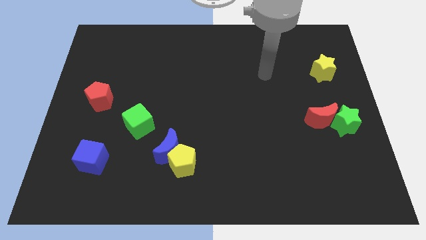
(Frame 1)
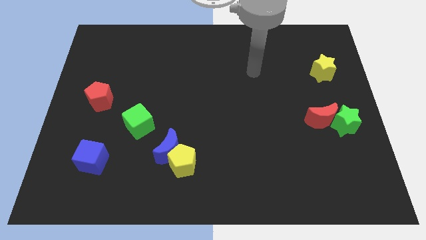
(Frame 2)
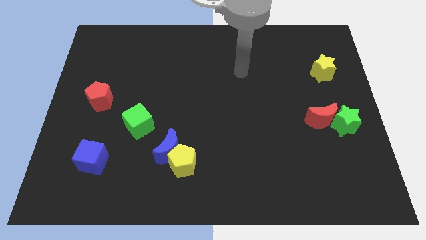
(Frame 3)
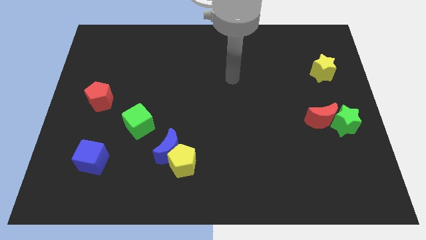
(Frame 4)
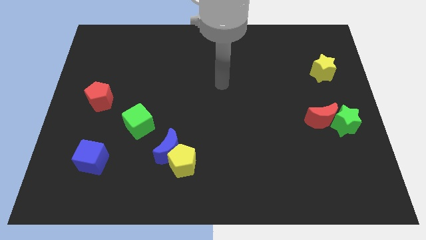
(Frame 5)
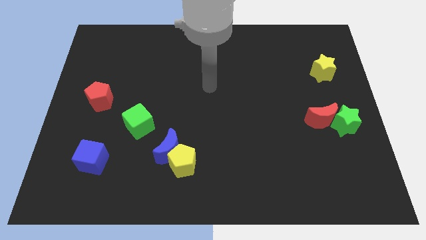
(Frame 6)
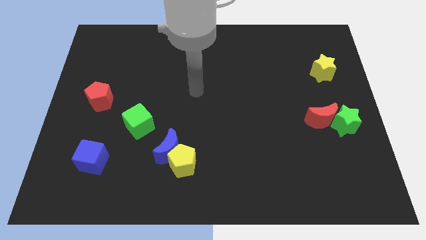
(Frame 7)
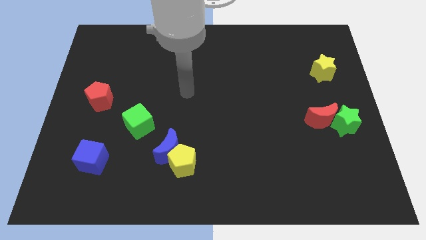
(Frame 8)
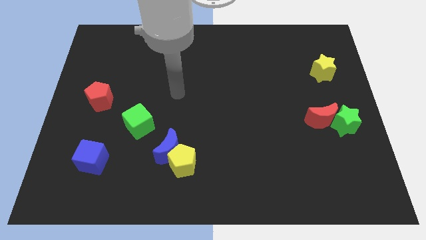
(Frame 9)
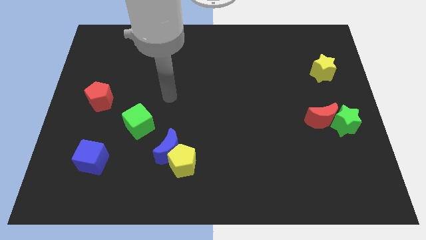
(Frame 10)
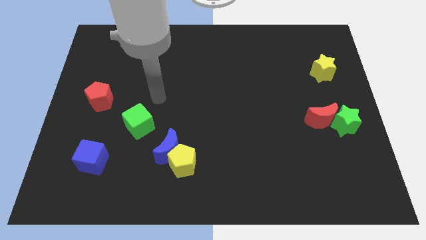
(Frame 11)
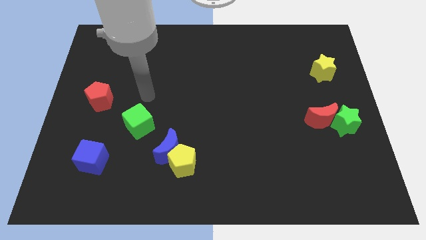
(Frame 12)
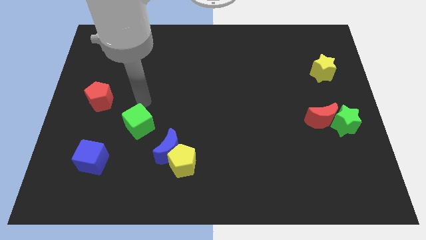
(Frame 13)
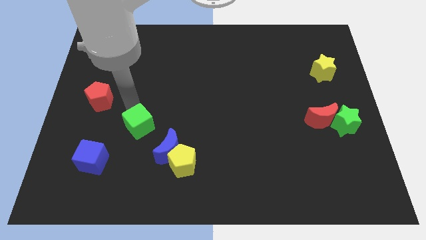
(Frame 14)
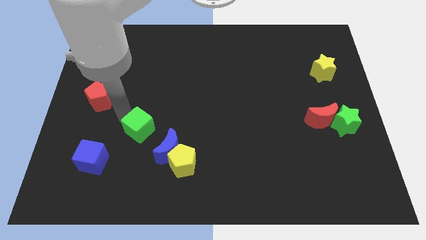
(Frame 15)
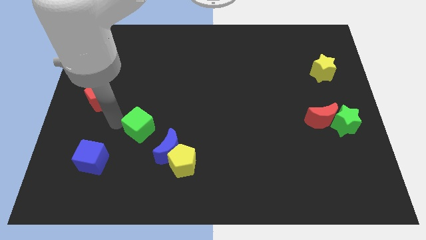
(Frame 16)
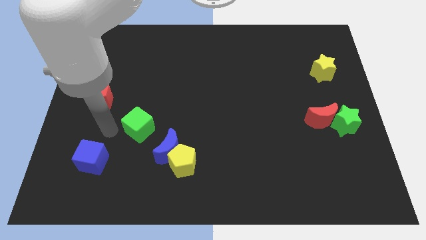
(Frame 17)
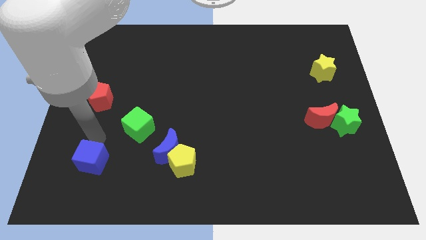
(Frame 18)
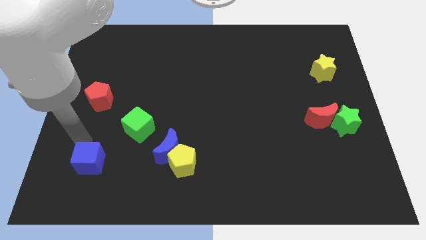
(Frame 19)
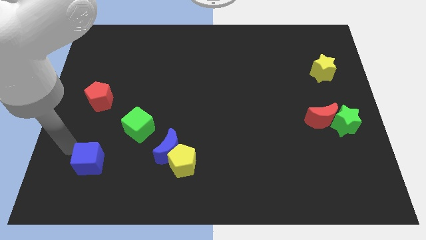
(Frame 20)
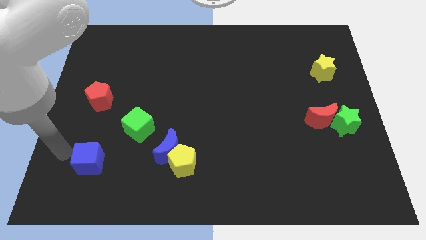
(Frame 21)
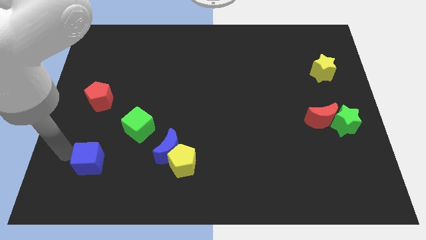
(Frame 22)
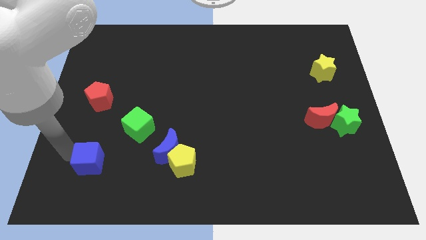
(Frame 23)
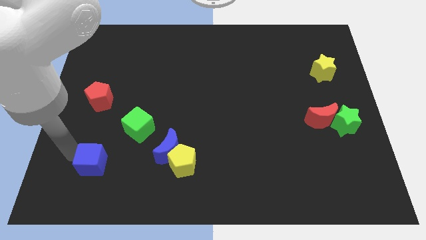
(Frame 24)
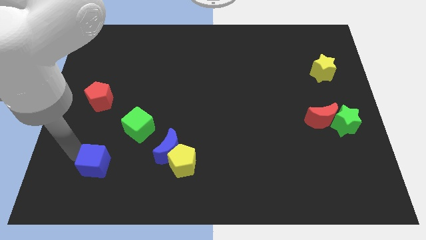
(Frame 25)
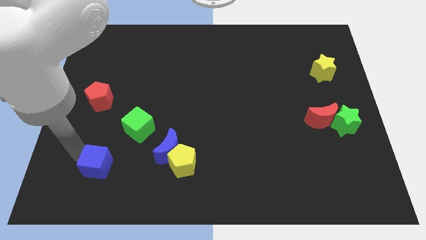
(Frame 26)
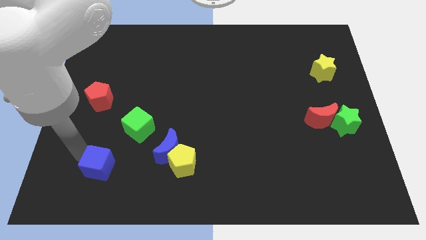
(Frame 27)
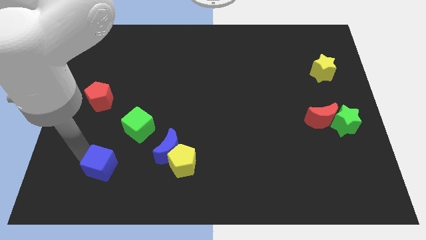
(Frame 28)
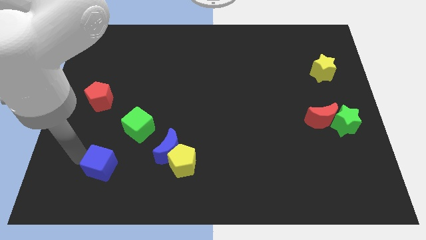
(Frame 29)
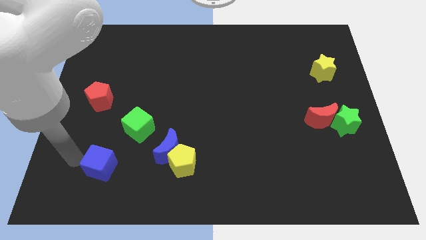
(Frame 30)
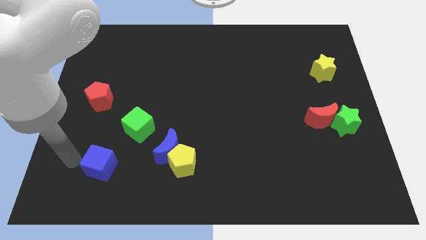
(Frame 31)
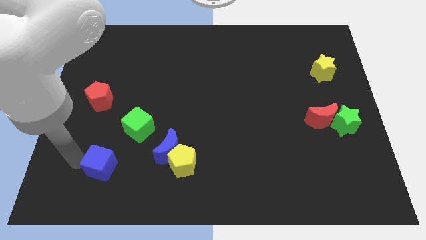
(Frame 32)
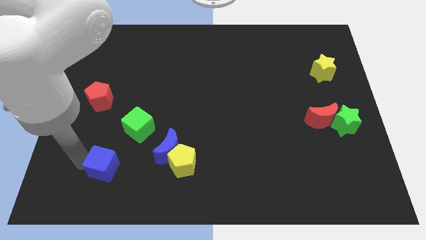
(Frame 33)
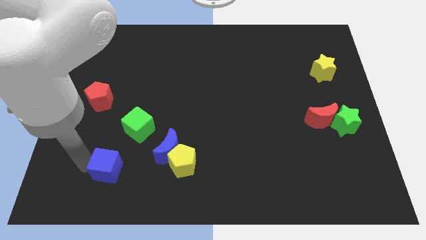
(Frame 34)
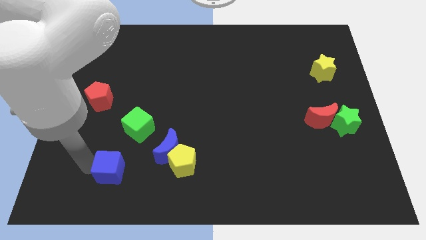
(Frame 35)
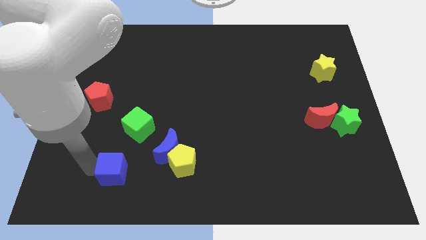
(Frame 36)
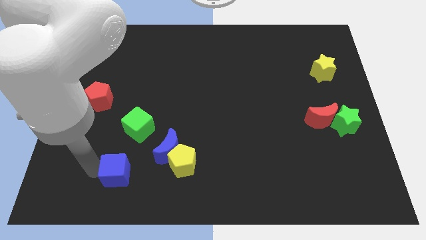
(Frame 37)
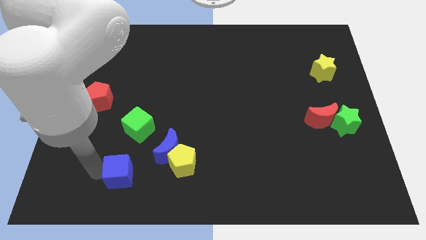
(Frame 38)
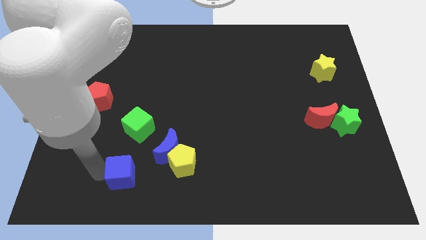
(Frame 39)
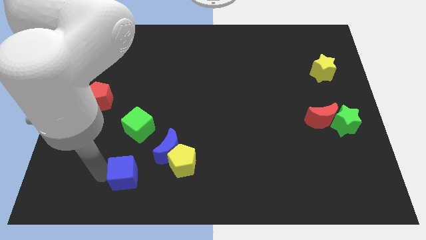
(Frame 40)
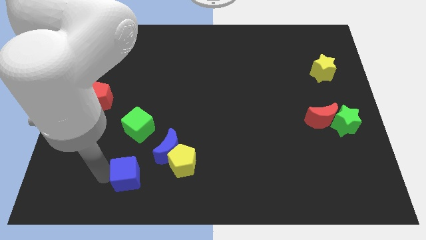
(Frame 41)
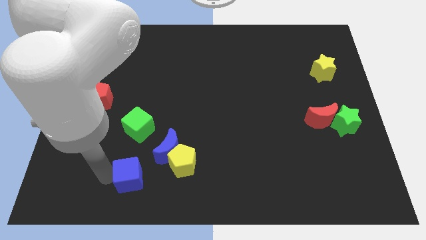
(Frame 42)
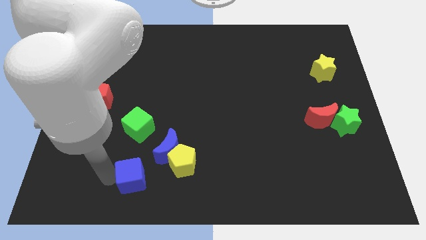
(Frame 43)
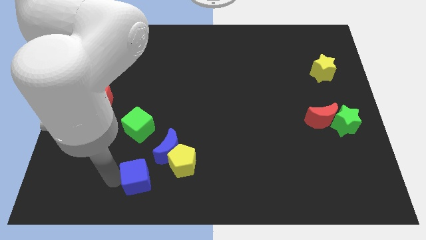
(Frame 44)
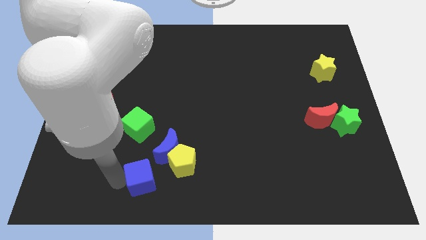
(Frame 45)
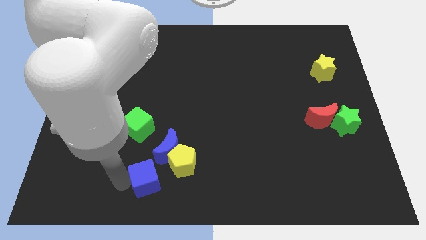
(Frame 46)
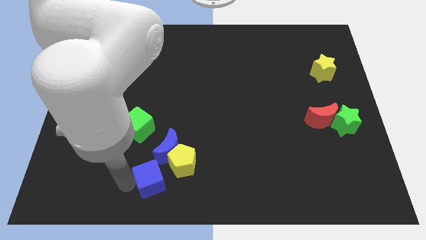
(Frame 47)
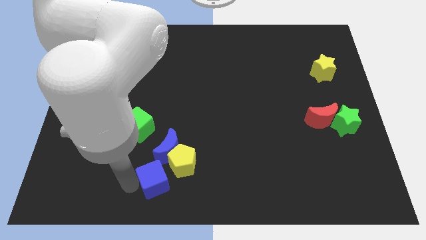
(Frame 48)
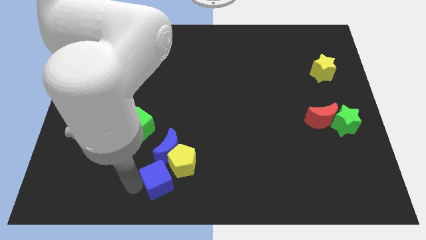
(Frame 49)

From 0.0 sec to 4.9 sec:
move the blue cube close to the yellow pentagon

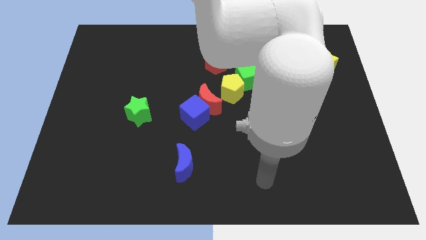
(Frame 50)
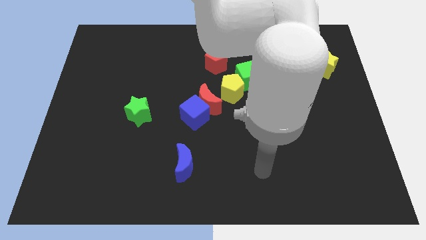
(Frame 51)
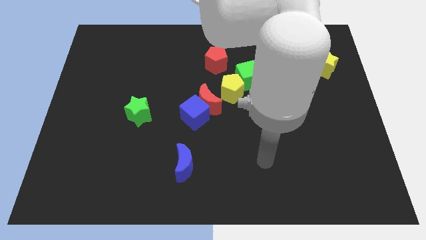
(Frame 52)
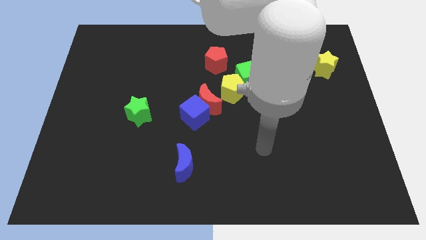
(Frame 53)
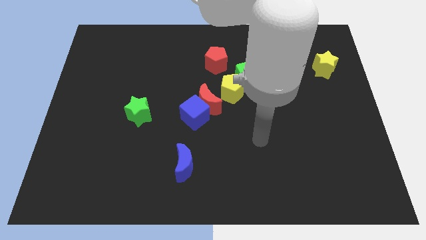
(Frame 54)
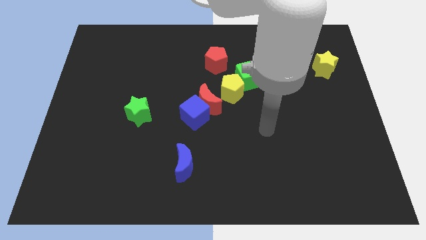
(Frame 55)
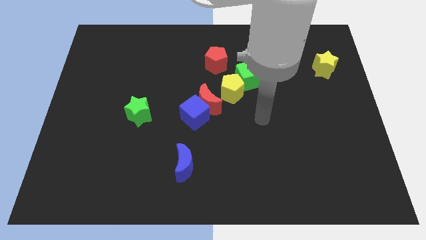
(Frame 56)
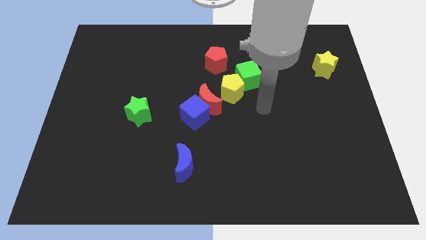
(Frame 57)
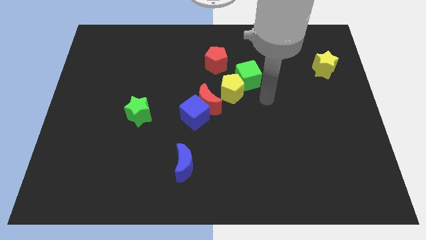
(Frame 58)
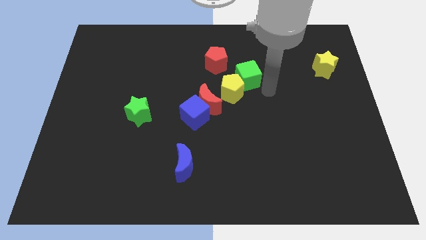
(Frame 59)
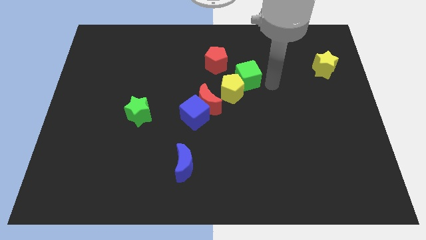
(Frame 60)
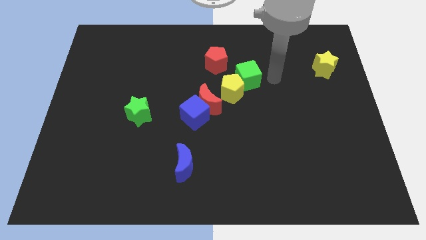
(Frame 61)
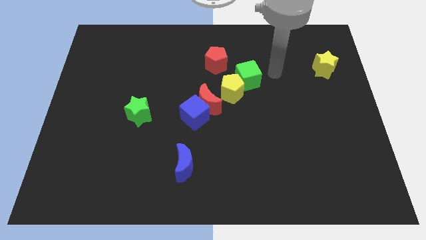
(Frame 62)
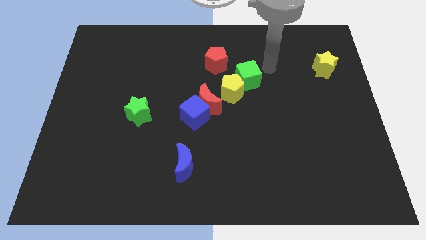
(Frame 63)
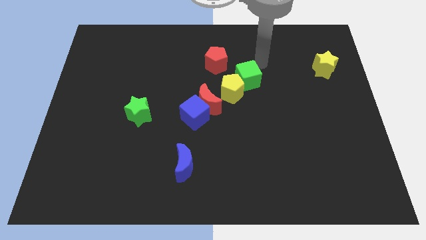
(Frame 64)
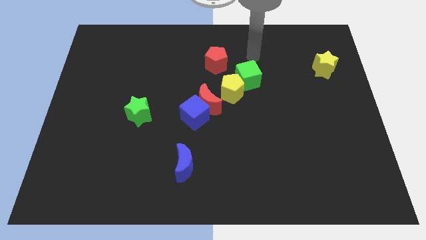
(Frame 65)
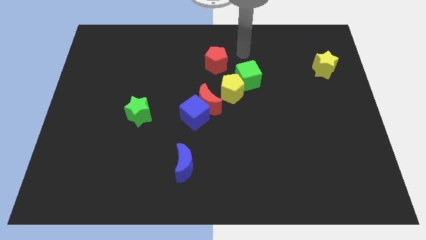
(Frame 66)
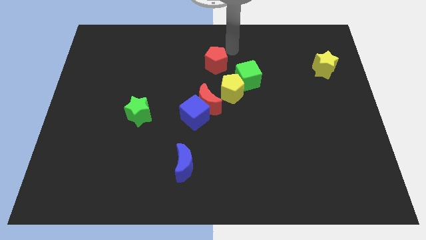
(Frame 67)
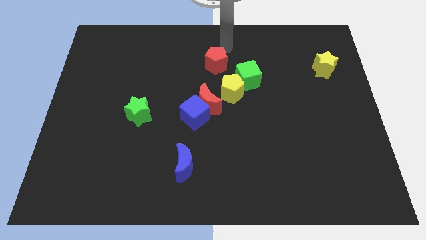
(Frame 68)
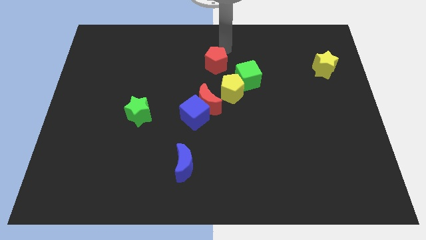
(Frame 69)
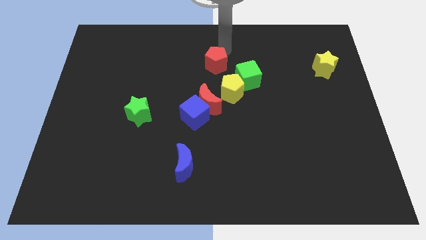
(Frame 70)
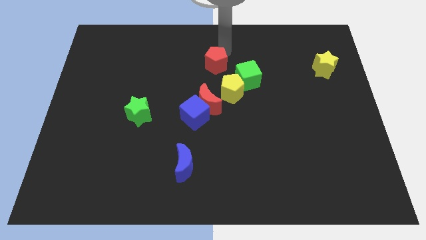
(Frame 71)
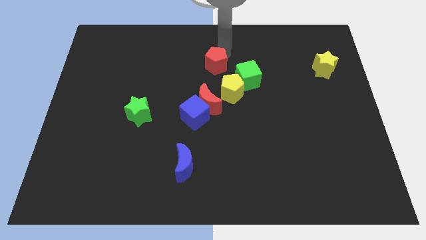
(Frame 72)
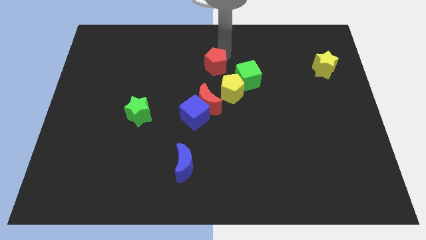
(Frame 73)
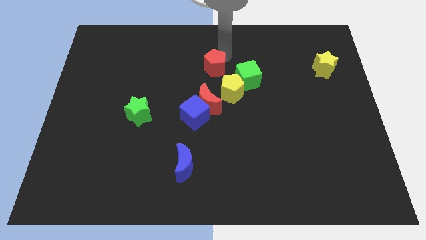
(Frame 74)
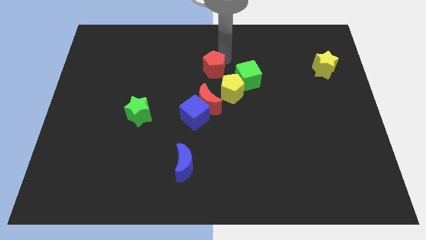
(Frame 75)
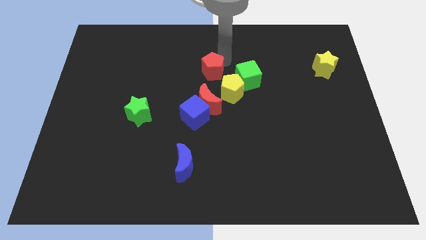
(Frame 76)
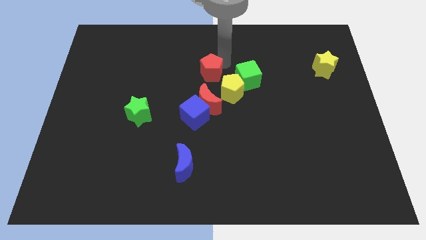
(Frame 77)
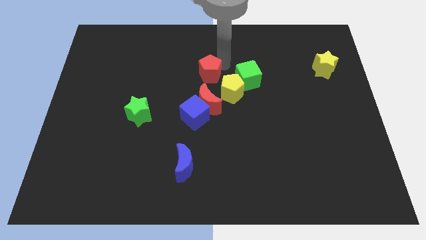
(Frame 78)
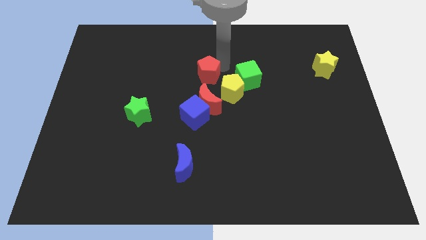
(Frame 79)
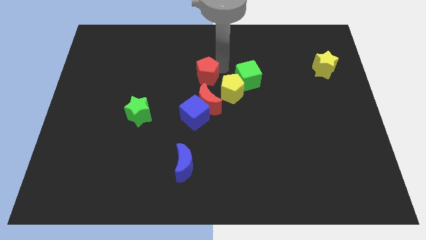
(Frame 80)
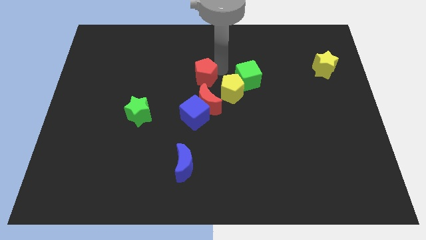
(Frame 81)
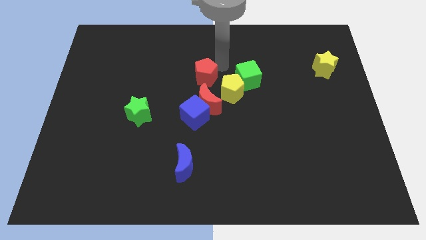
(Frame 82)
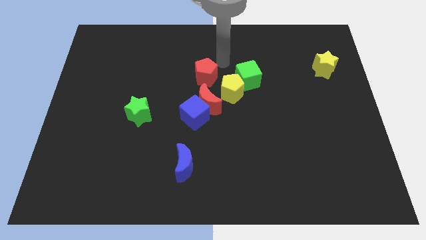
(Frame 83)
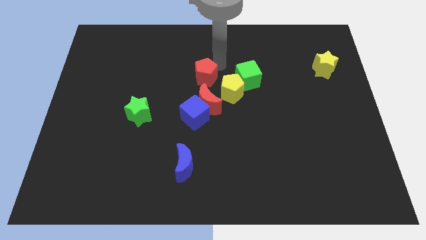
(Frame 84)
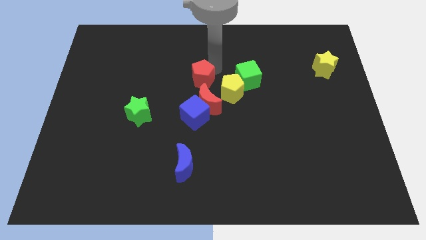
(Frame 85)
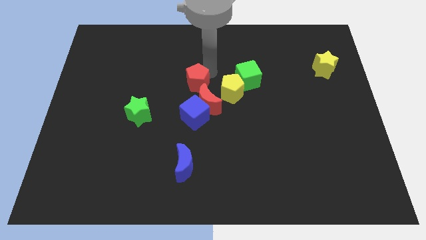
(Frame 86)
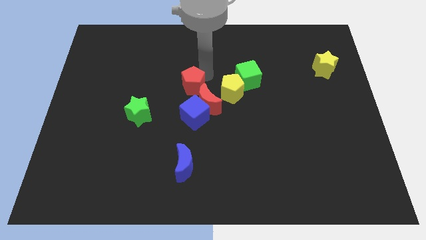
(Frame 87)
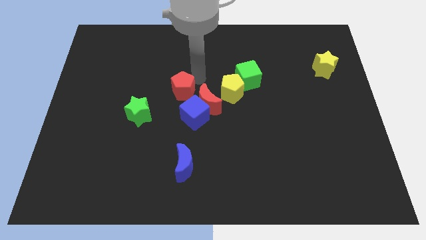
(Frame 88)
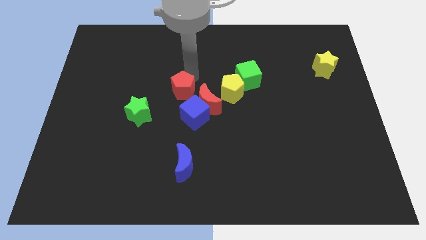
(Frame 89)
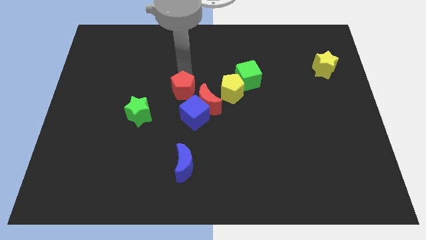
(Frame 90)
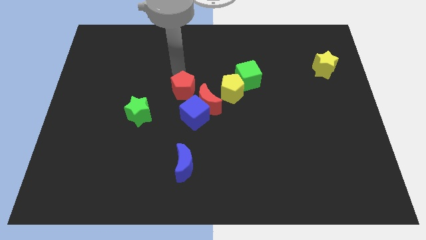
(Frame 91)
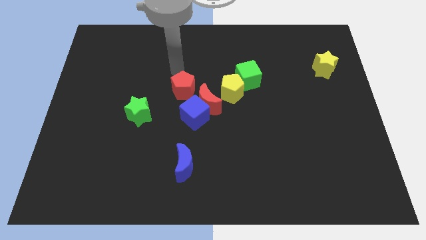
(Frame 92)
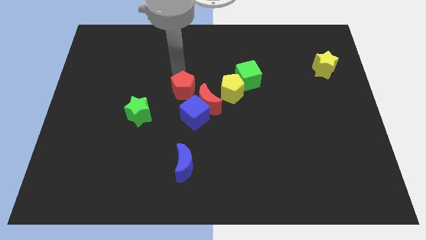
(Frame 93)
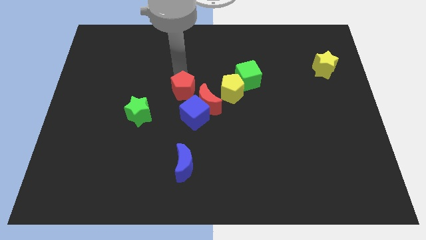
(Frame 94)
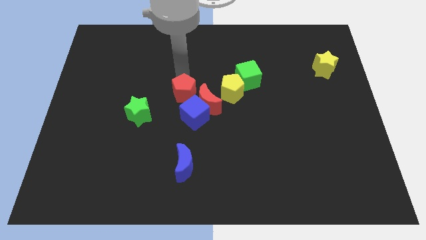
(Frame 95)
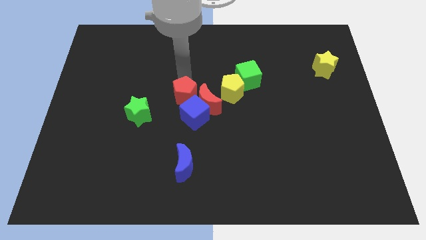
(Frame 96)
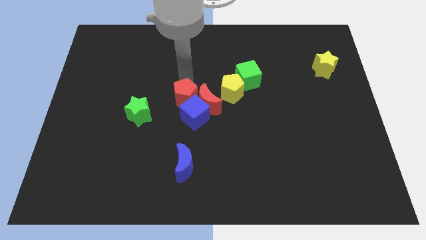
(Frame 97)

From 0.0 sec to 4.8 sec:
move the red pentagon next to the blue cube
